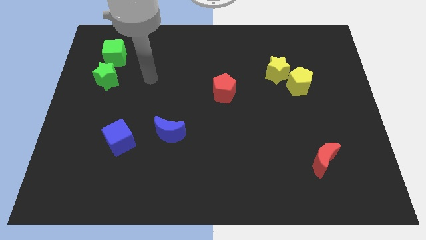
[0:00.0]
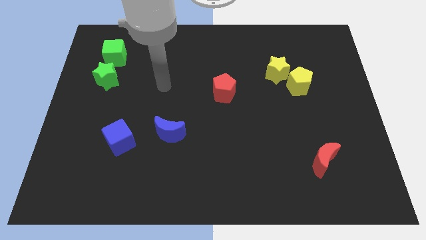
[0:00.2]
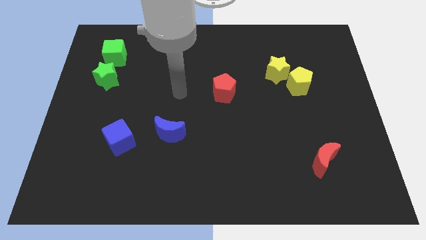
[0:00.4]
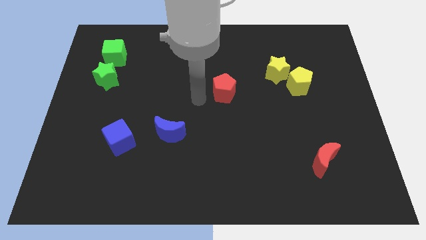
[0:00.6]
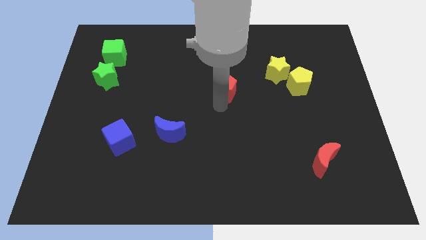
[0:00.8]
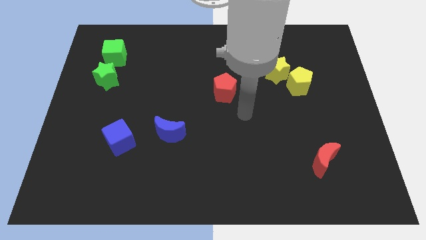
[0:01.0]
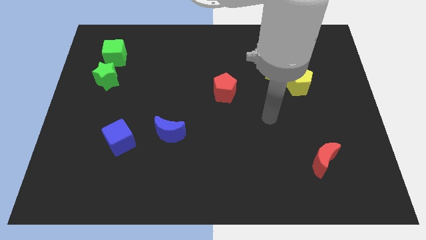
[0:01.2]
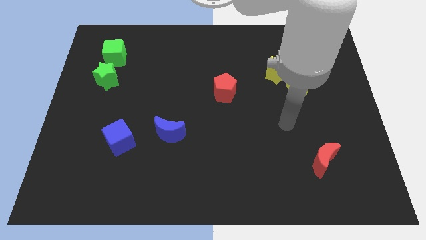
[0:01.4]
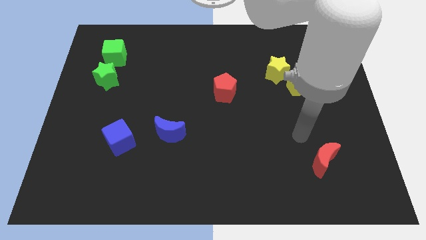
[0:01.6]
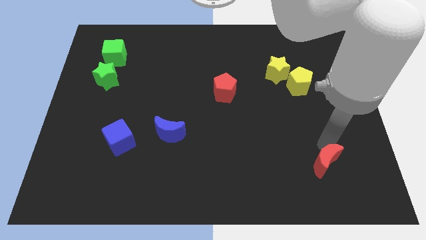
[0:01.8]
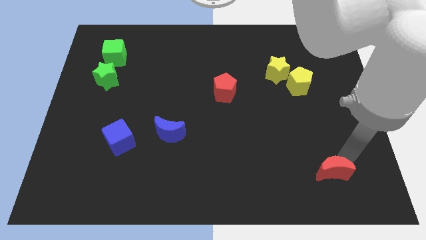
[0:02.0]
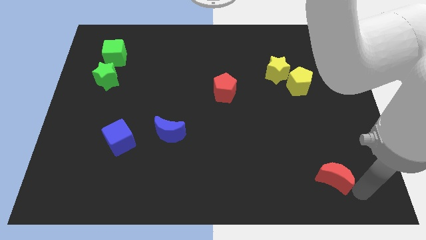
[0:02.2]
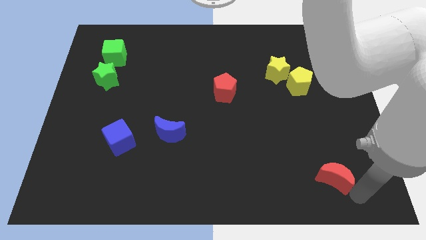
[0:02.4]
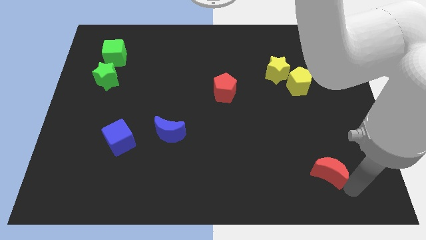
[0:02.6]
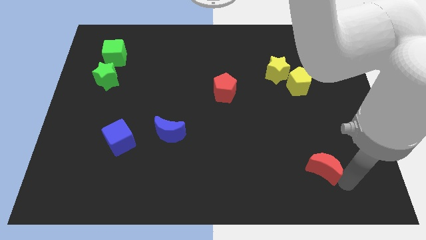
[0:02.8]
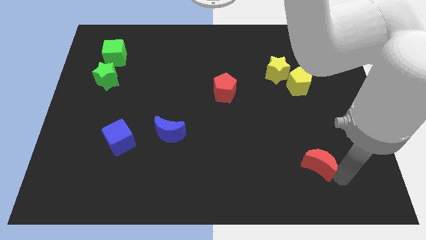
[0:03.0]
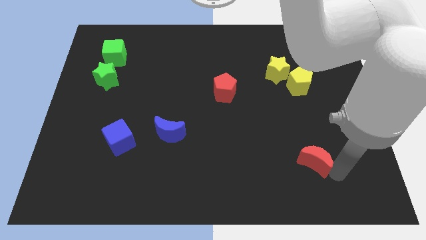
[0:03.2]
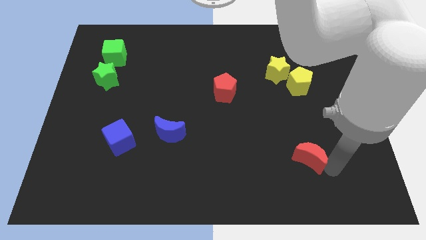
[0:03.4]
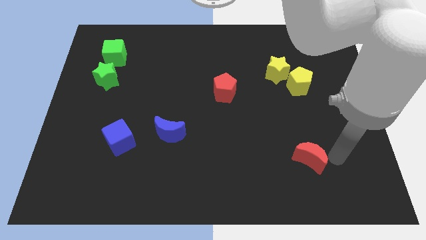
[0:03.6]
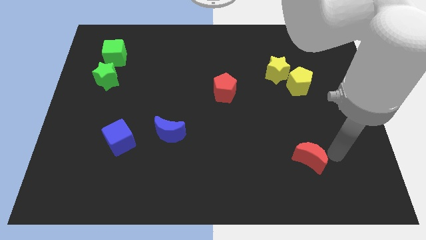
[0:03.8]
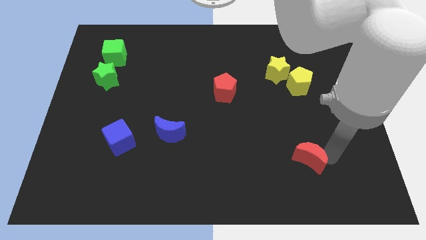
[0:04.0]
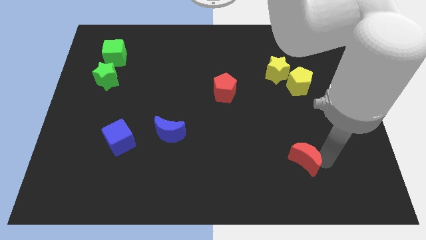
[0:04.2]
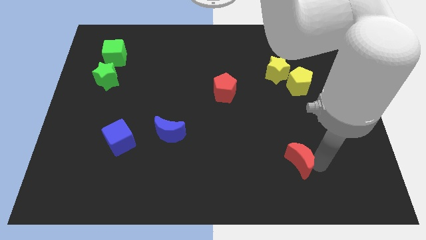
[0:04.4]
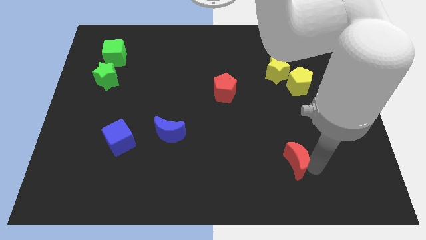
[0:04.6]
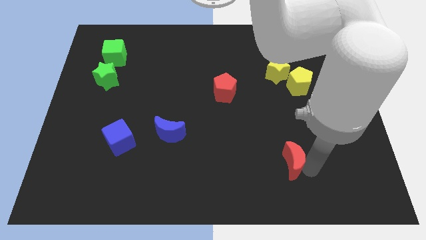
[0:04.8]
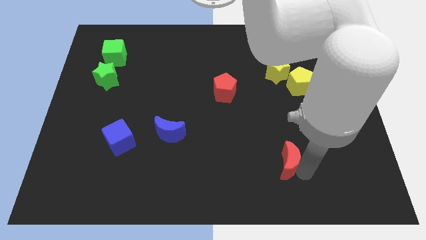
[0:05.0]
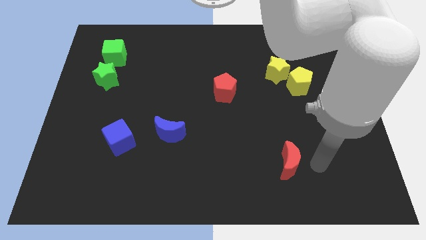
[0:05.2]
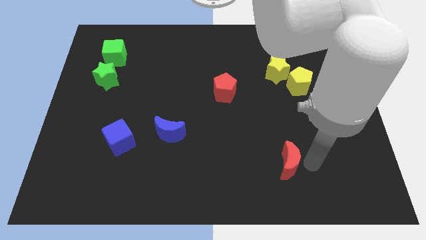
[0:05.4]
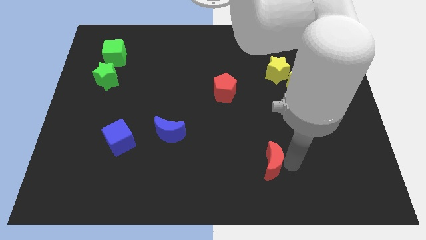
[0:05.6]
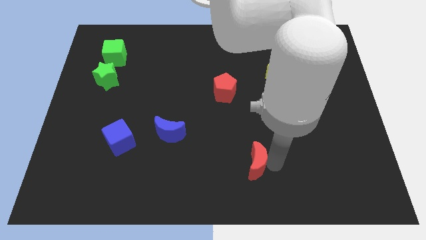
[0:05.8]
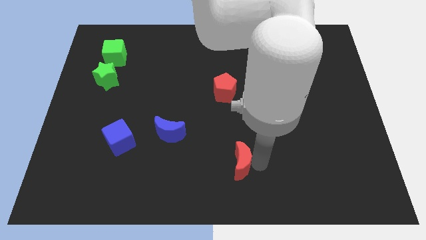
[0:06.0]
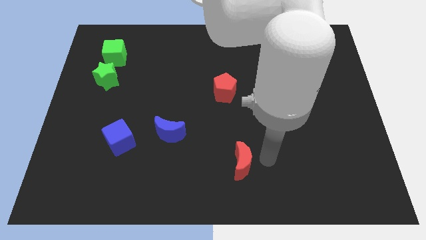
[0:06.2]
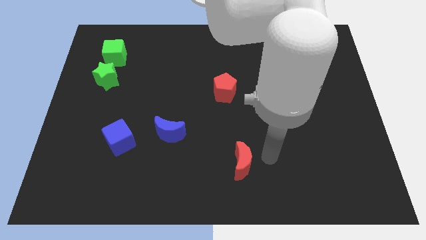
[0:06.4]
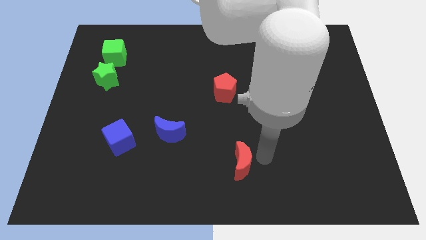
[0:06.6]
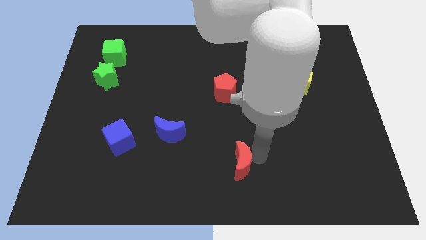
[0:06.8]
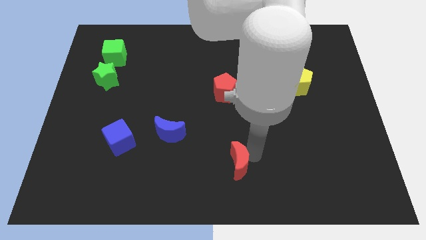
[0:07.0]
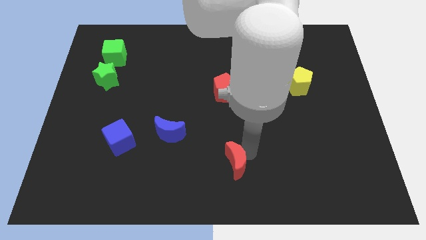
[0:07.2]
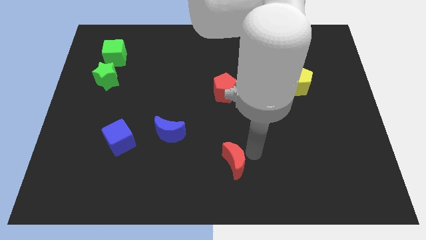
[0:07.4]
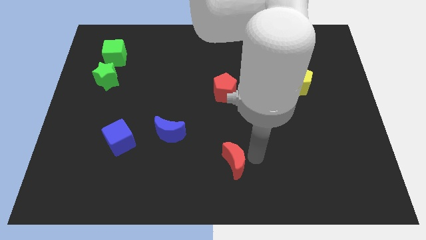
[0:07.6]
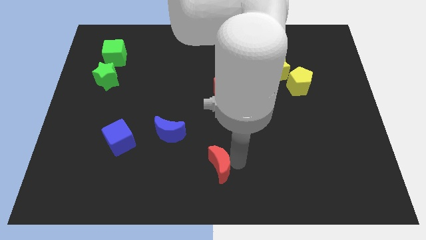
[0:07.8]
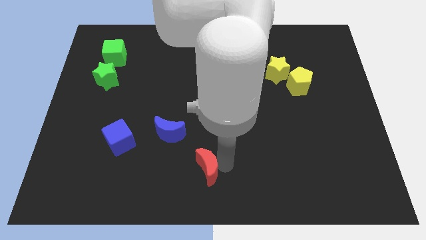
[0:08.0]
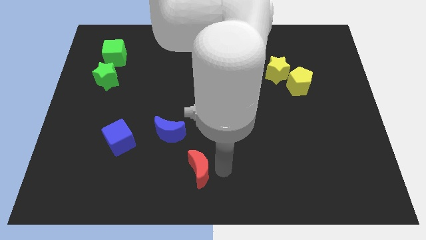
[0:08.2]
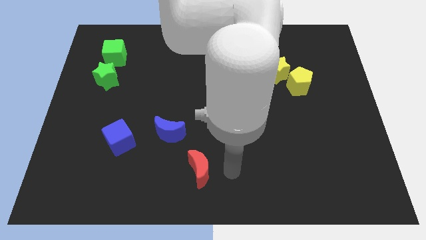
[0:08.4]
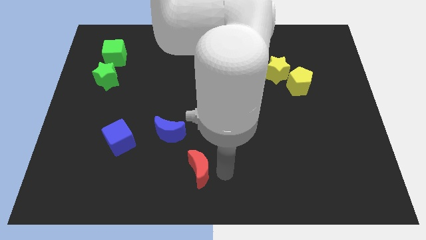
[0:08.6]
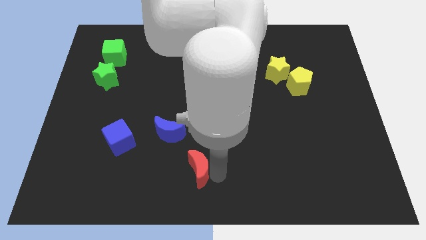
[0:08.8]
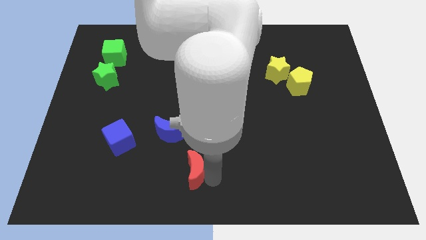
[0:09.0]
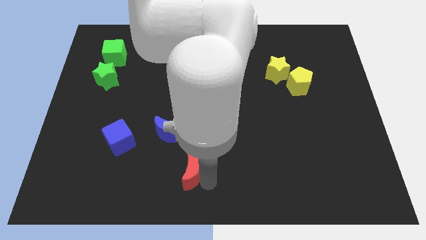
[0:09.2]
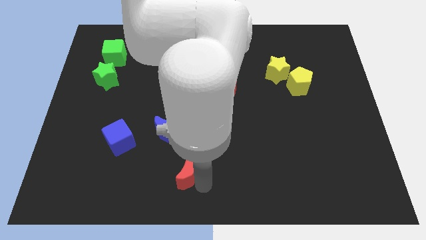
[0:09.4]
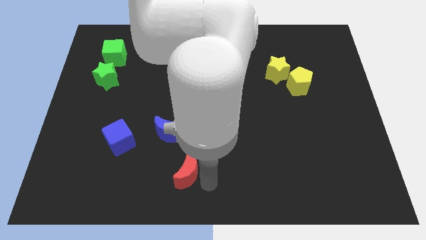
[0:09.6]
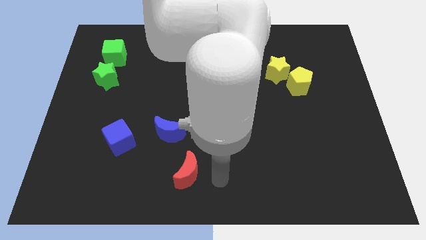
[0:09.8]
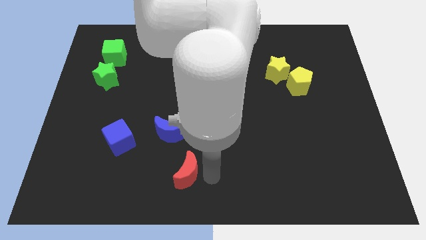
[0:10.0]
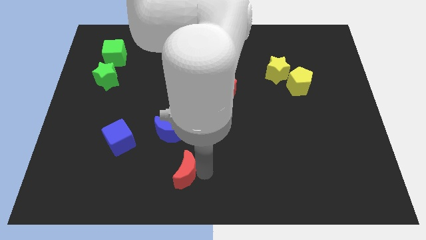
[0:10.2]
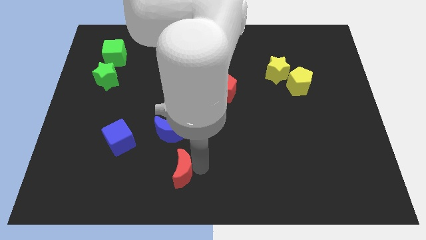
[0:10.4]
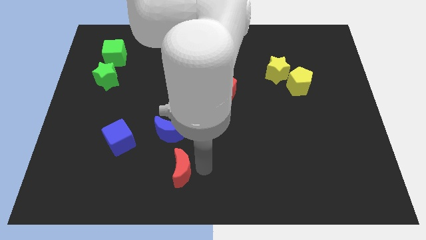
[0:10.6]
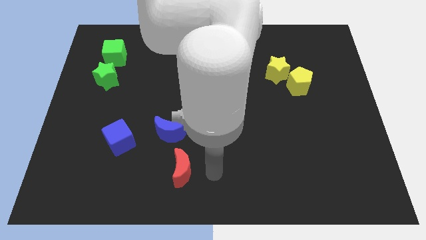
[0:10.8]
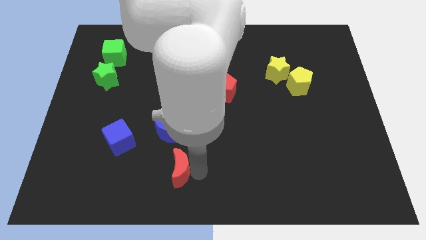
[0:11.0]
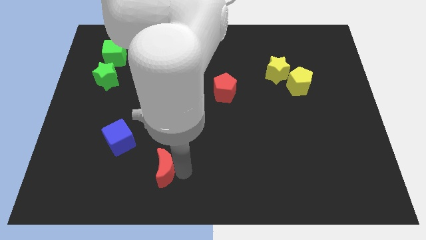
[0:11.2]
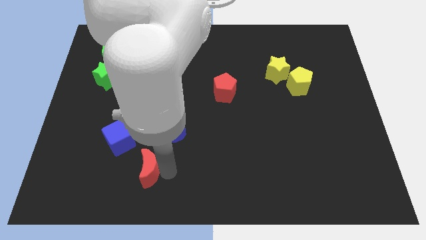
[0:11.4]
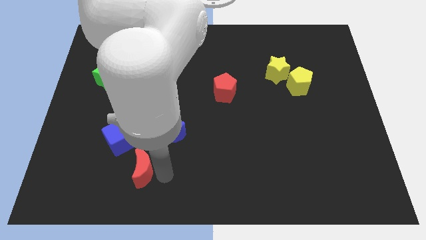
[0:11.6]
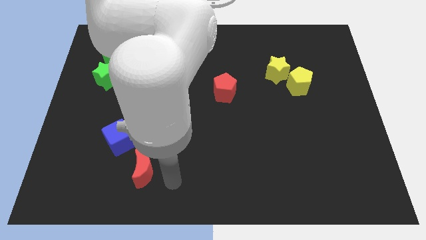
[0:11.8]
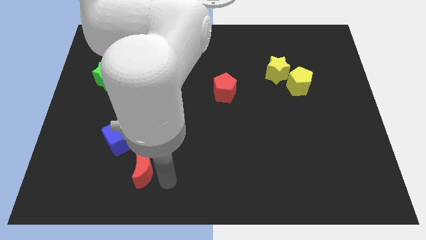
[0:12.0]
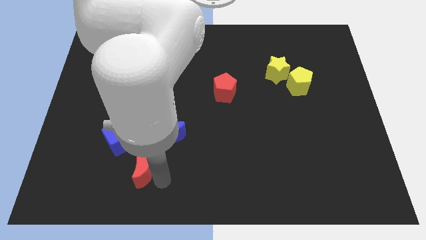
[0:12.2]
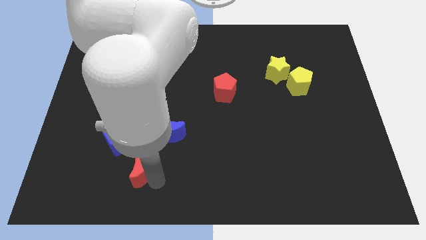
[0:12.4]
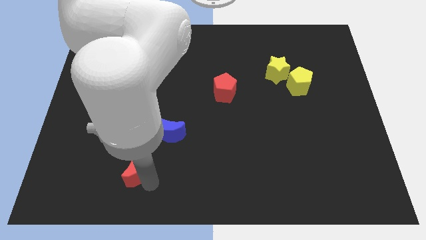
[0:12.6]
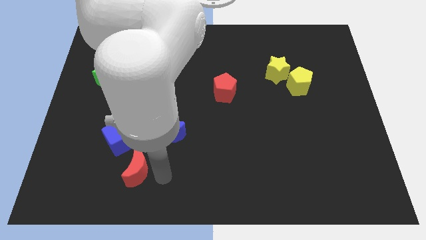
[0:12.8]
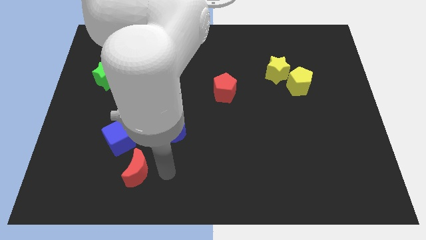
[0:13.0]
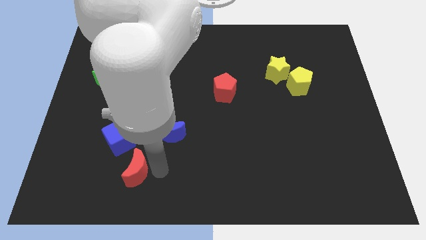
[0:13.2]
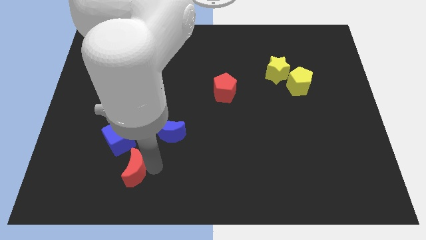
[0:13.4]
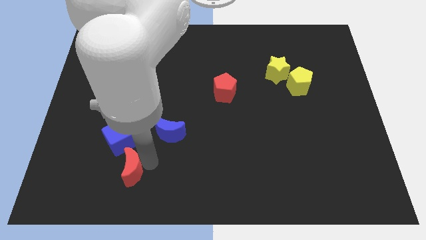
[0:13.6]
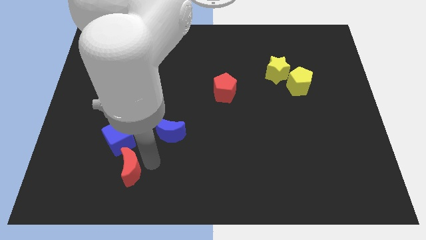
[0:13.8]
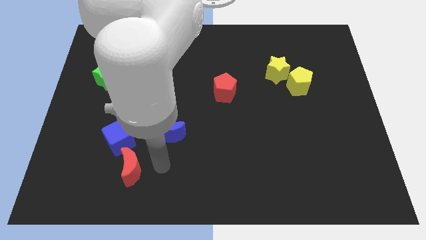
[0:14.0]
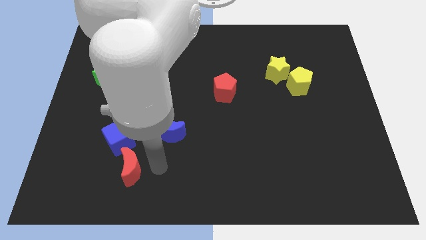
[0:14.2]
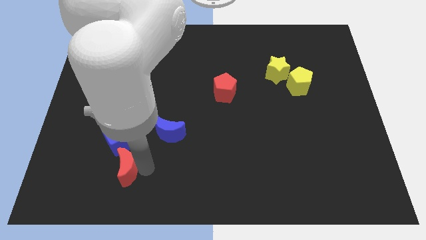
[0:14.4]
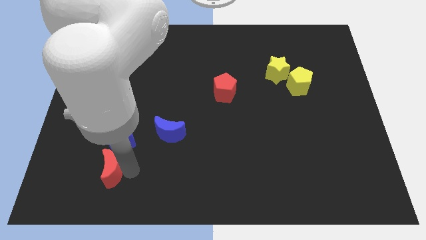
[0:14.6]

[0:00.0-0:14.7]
move the red moon to the bottom left side of the blue cube
